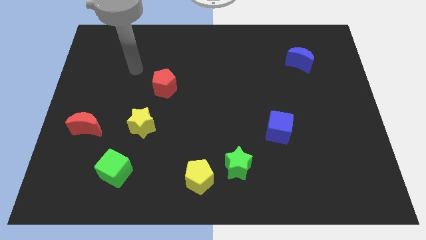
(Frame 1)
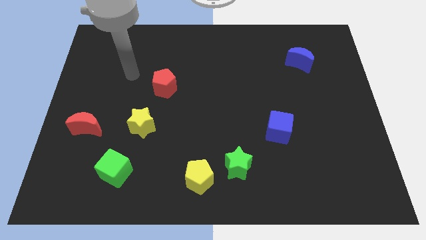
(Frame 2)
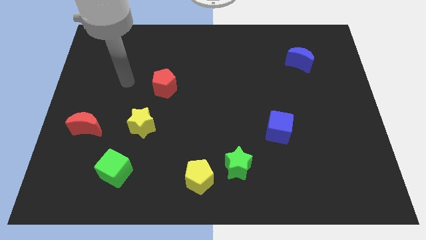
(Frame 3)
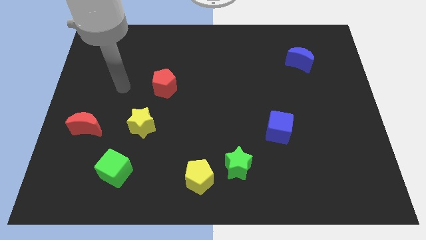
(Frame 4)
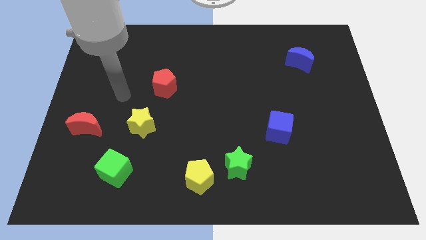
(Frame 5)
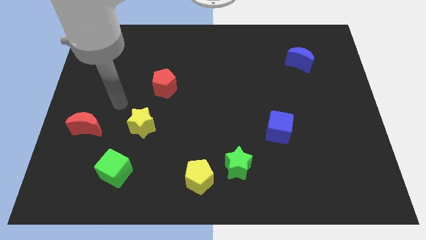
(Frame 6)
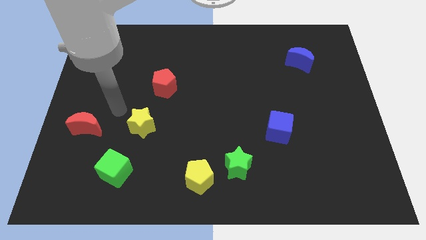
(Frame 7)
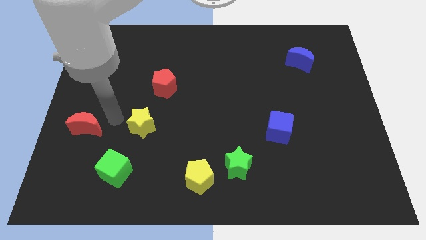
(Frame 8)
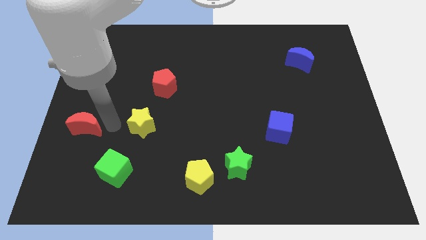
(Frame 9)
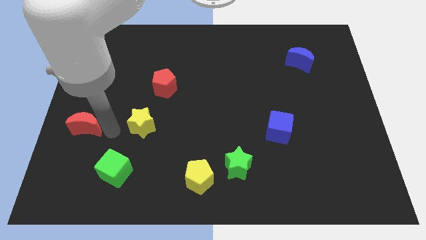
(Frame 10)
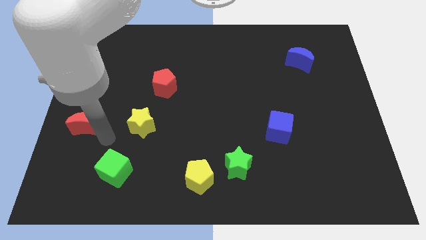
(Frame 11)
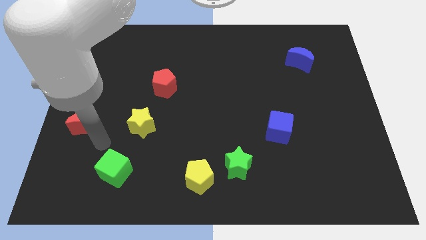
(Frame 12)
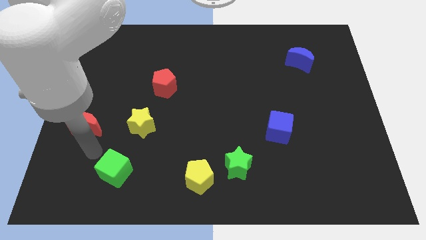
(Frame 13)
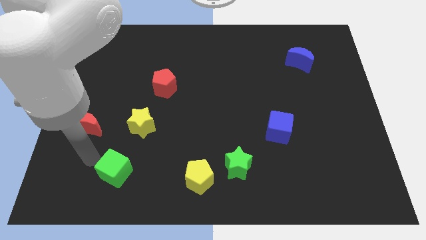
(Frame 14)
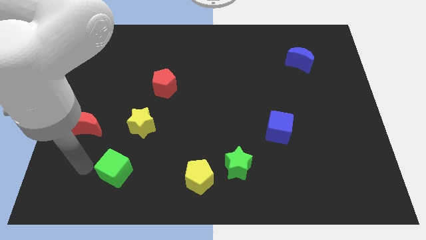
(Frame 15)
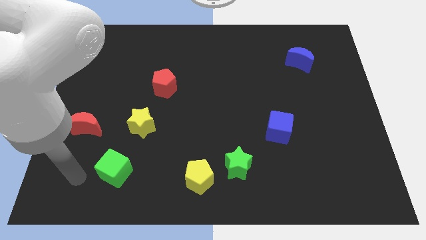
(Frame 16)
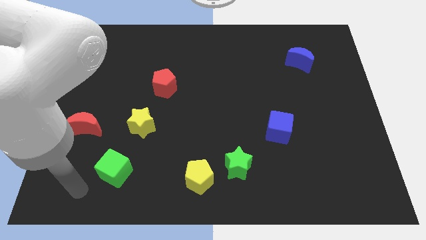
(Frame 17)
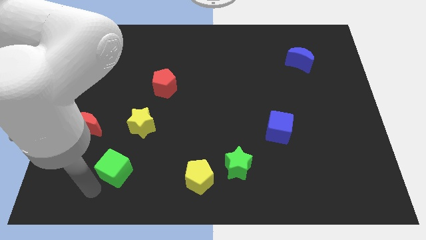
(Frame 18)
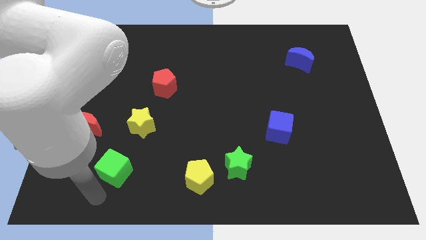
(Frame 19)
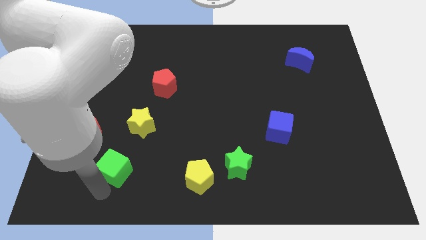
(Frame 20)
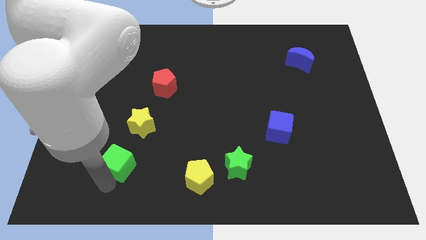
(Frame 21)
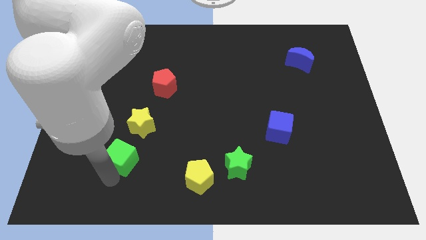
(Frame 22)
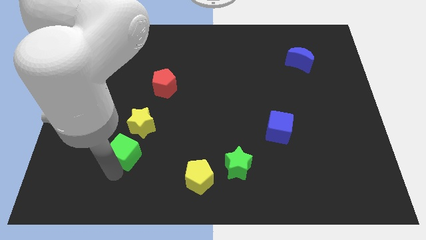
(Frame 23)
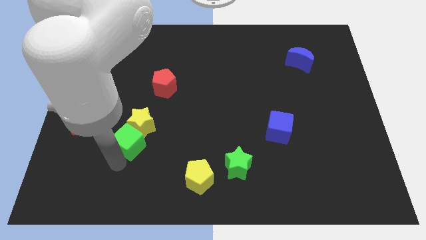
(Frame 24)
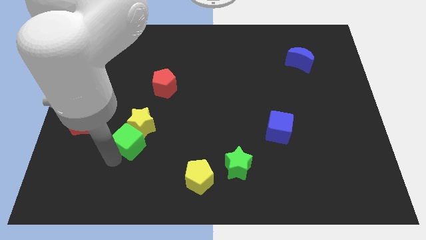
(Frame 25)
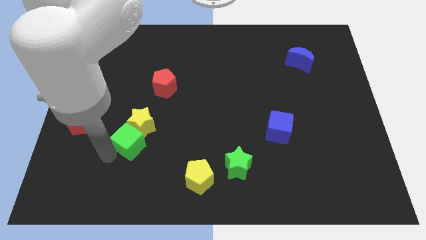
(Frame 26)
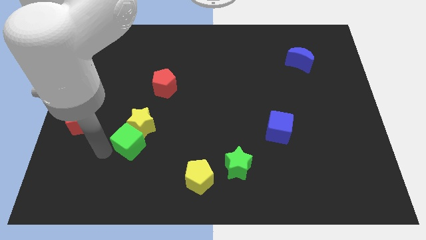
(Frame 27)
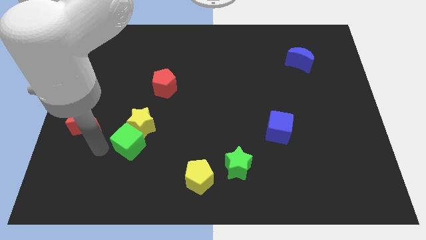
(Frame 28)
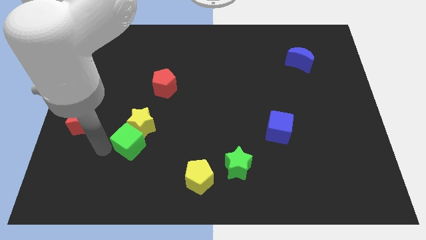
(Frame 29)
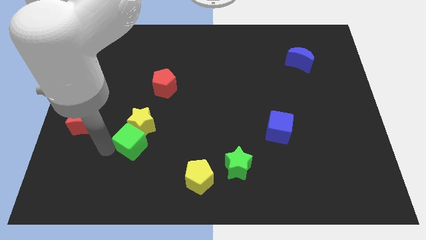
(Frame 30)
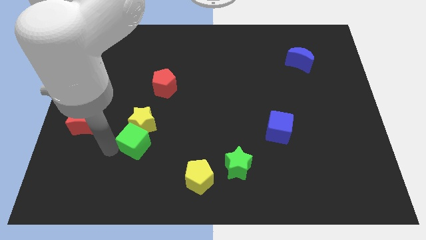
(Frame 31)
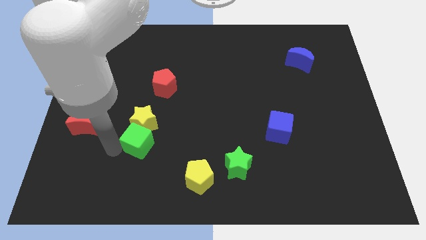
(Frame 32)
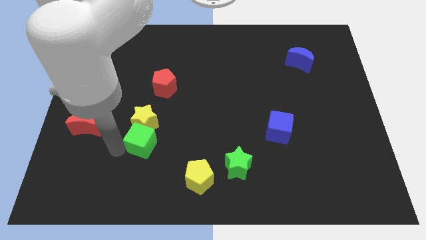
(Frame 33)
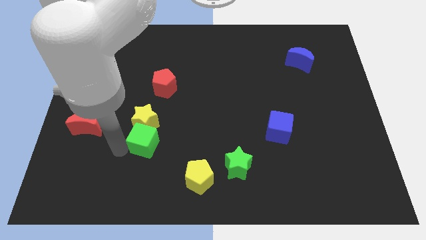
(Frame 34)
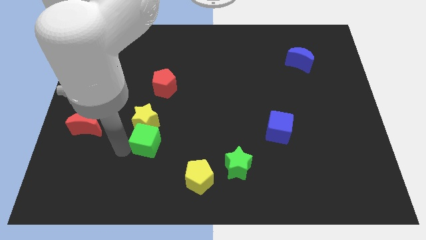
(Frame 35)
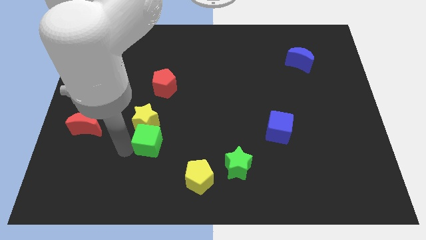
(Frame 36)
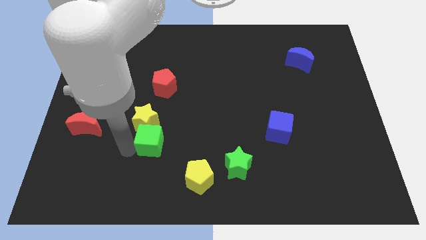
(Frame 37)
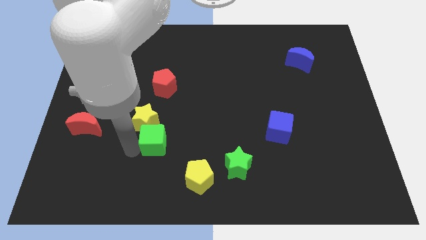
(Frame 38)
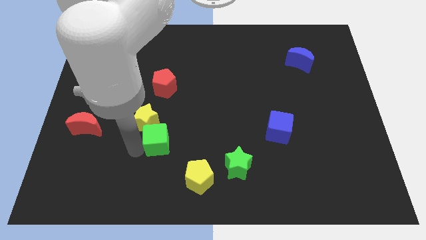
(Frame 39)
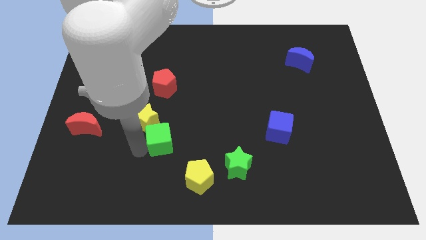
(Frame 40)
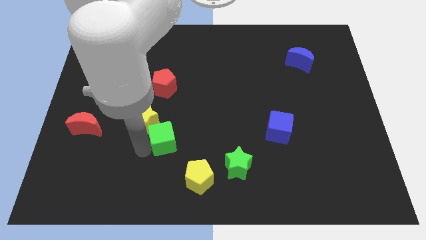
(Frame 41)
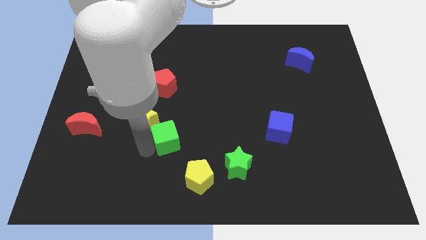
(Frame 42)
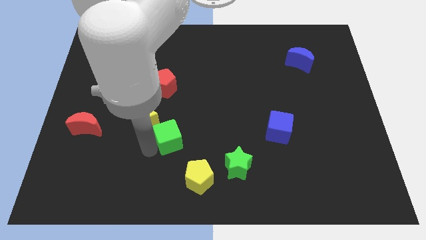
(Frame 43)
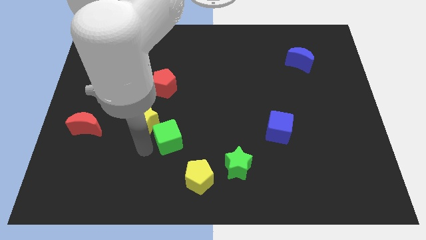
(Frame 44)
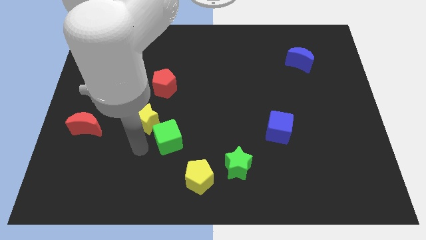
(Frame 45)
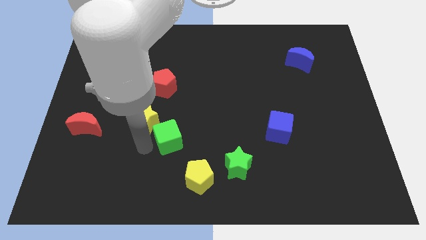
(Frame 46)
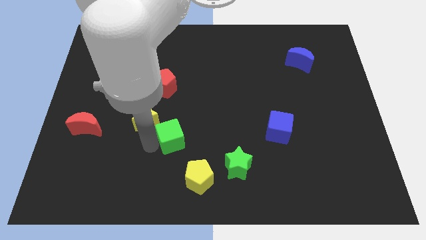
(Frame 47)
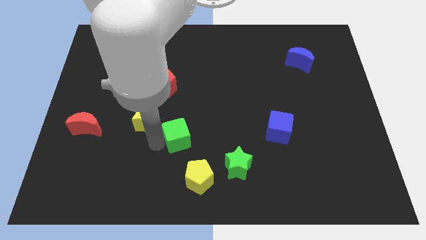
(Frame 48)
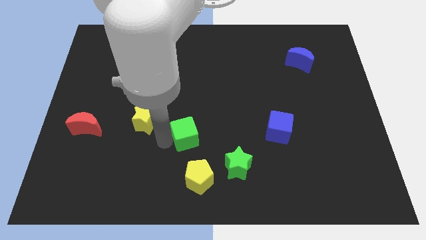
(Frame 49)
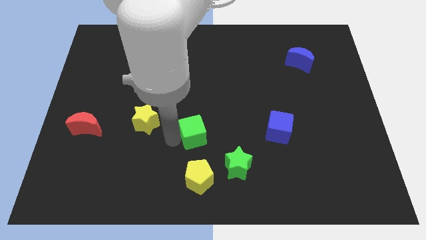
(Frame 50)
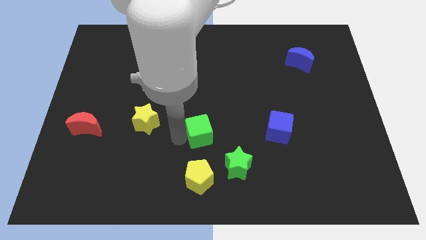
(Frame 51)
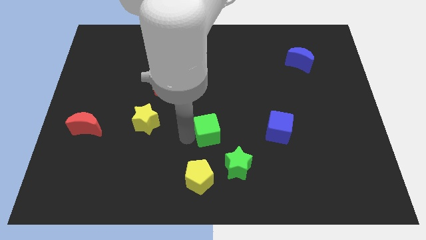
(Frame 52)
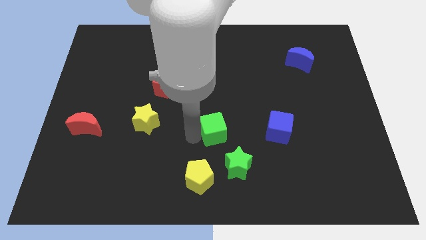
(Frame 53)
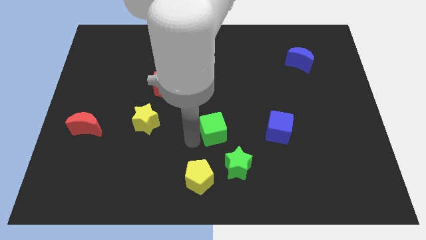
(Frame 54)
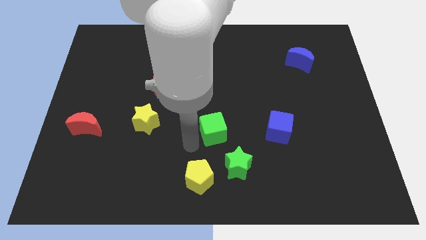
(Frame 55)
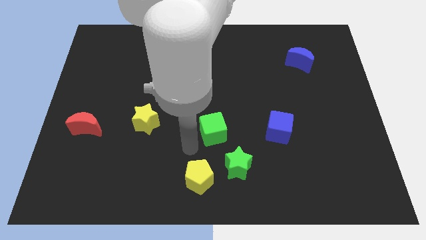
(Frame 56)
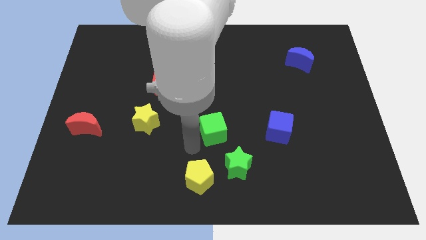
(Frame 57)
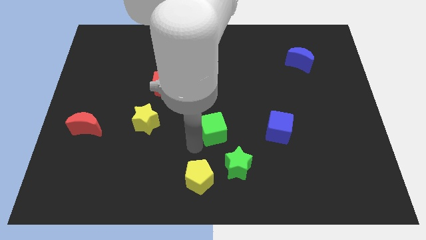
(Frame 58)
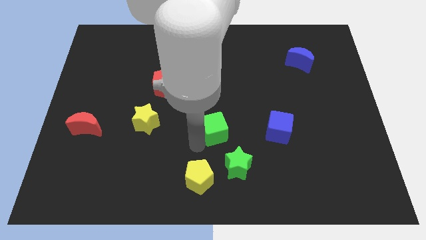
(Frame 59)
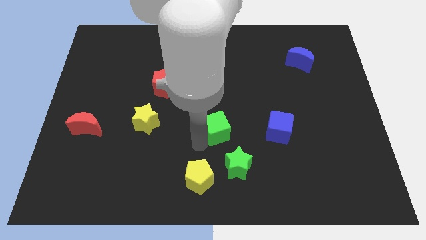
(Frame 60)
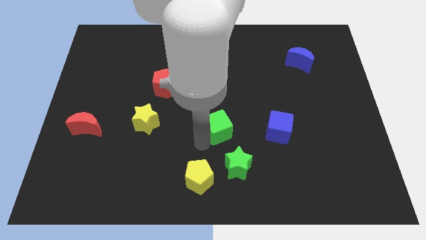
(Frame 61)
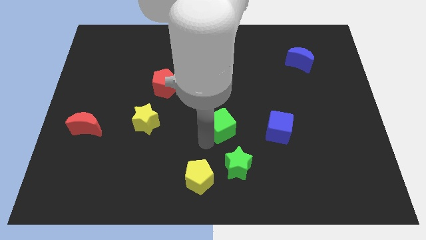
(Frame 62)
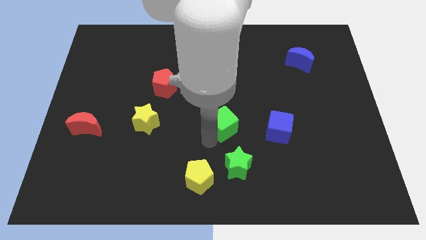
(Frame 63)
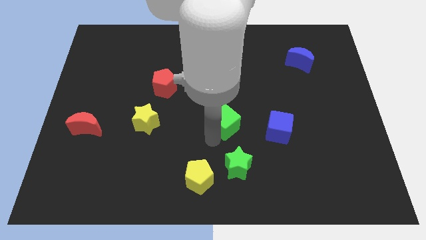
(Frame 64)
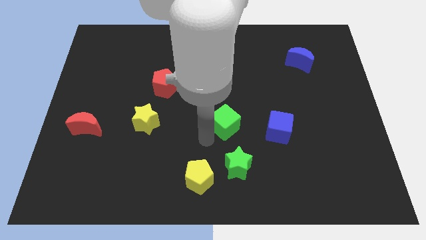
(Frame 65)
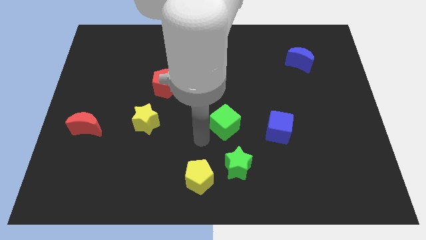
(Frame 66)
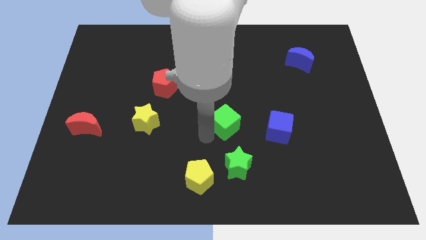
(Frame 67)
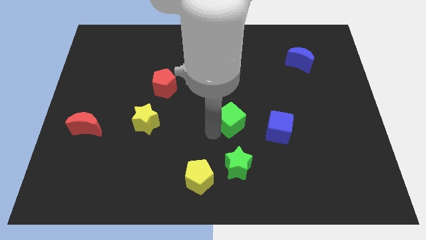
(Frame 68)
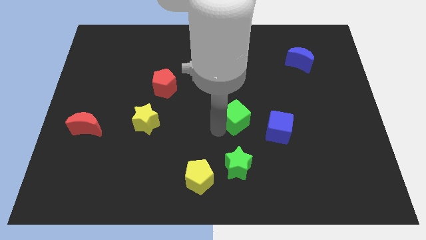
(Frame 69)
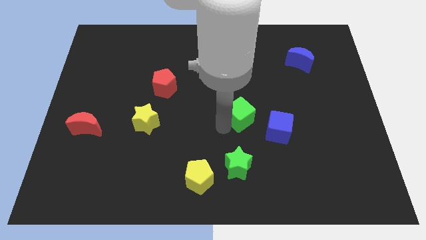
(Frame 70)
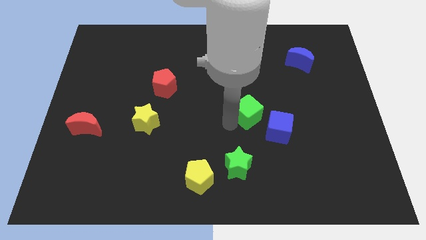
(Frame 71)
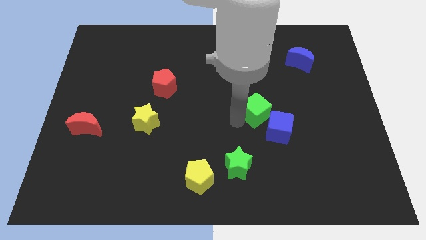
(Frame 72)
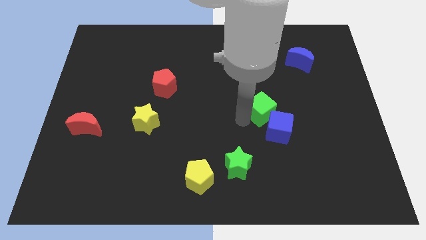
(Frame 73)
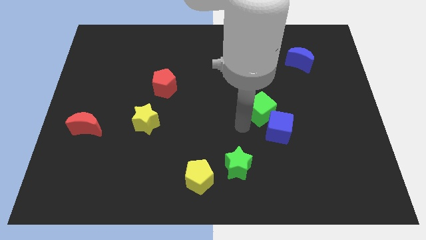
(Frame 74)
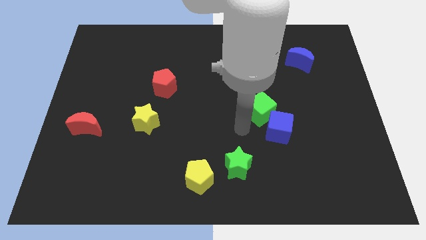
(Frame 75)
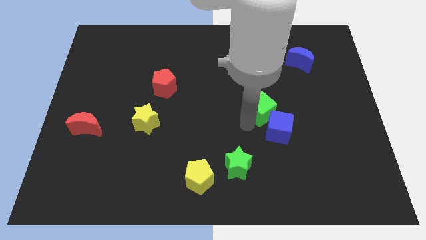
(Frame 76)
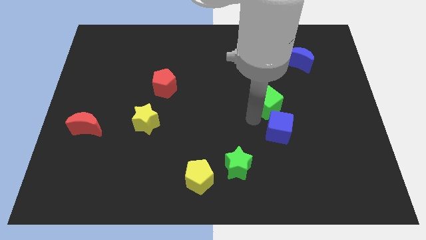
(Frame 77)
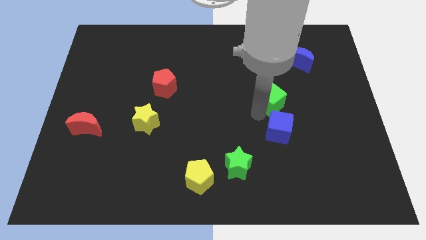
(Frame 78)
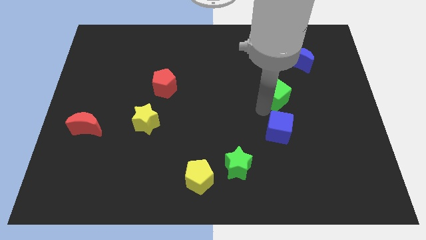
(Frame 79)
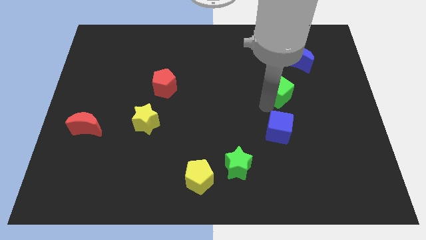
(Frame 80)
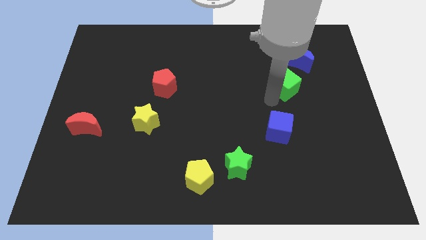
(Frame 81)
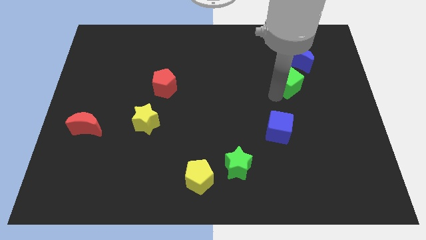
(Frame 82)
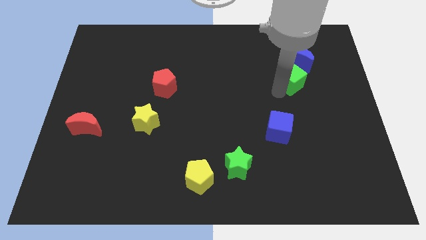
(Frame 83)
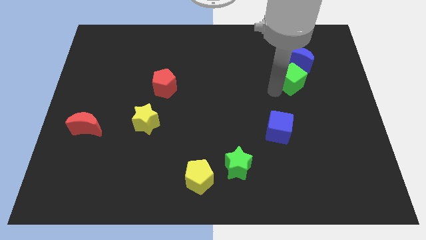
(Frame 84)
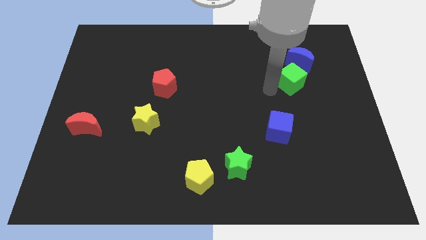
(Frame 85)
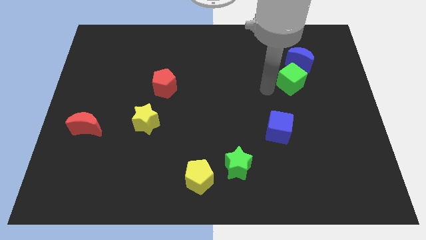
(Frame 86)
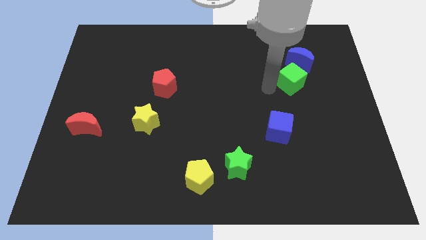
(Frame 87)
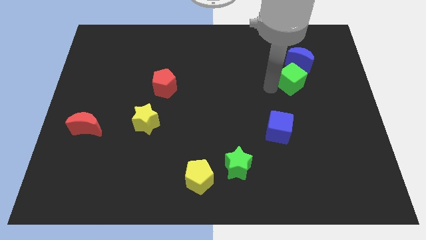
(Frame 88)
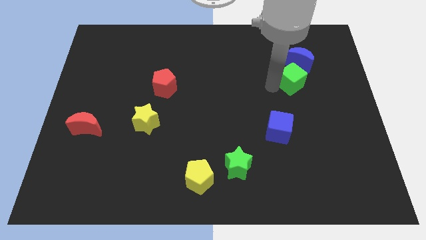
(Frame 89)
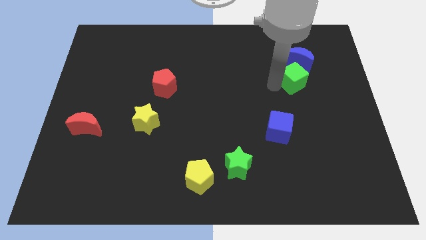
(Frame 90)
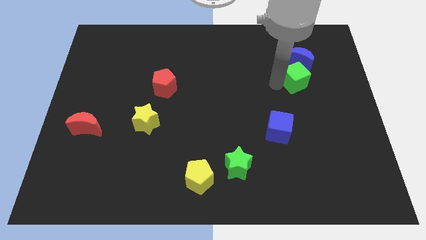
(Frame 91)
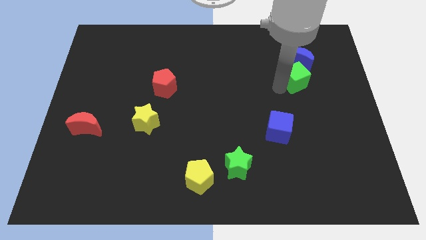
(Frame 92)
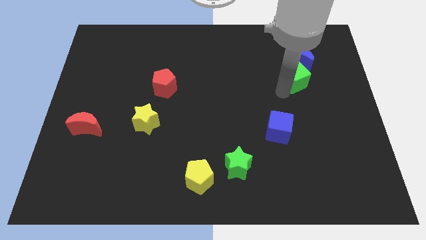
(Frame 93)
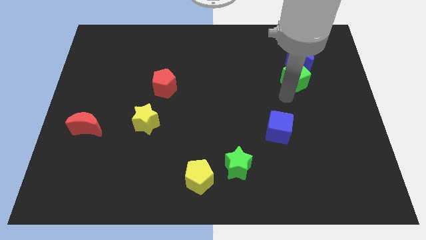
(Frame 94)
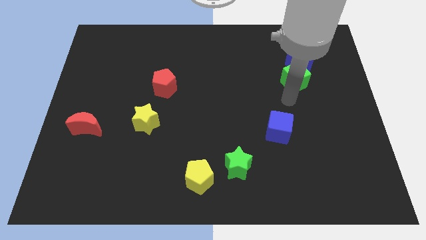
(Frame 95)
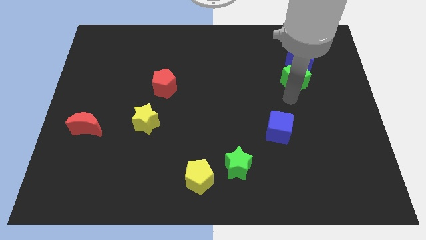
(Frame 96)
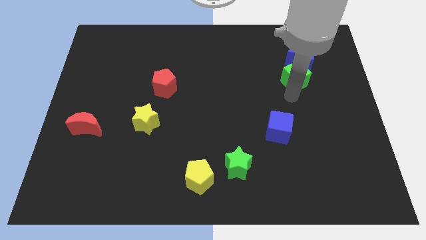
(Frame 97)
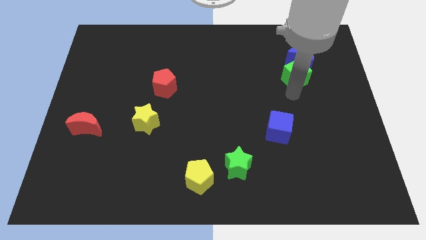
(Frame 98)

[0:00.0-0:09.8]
push the green cube next to the blue moon
